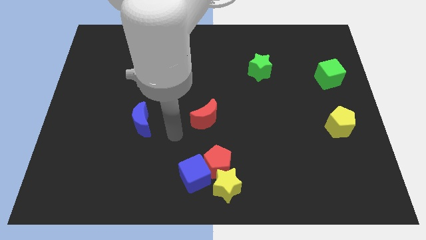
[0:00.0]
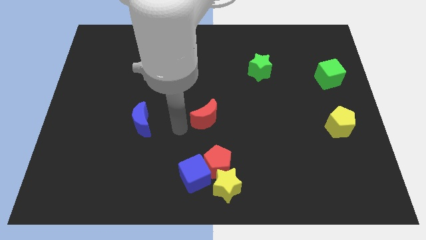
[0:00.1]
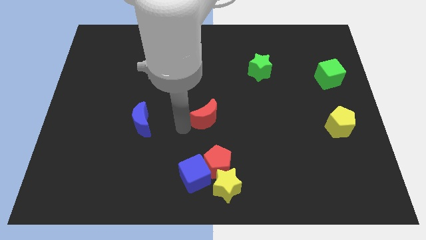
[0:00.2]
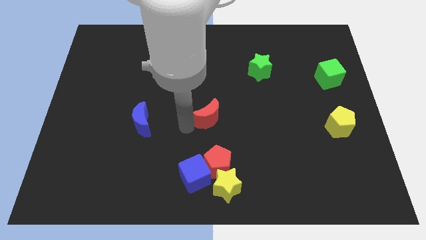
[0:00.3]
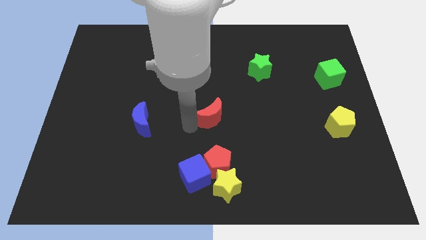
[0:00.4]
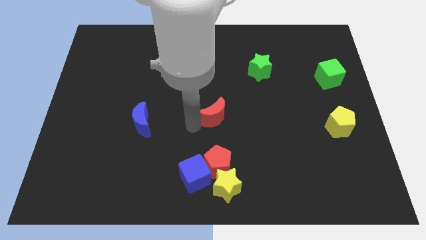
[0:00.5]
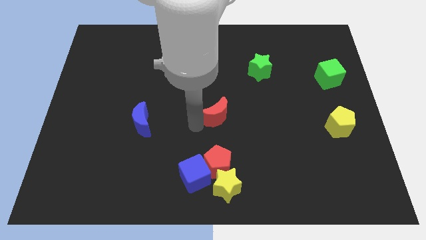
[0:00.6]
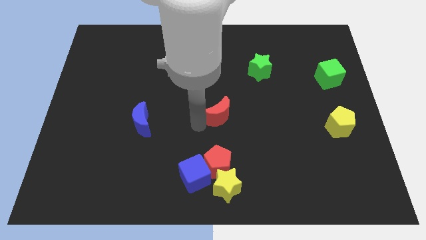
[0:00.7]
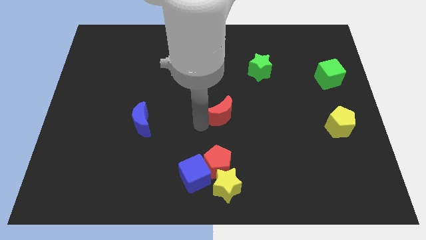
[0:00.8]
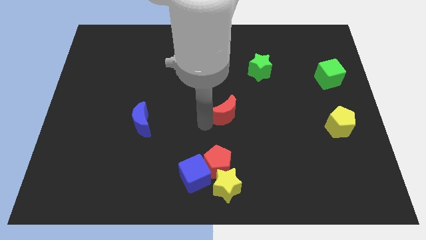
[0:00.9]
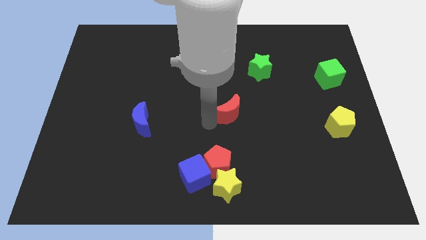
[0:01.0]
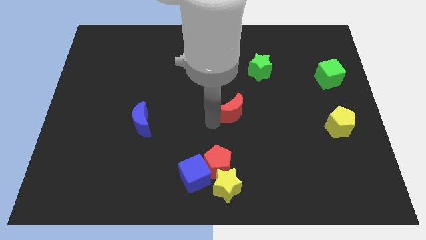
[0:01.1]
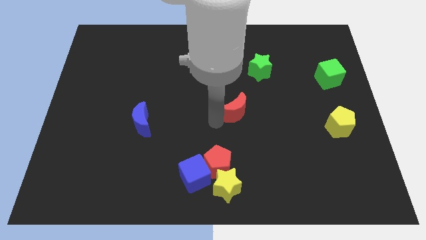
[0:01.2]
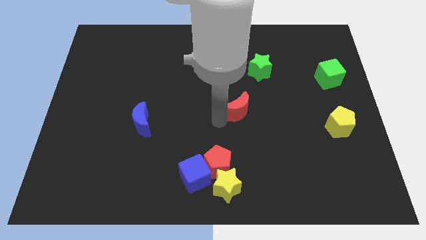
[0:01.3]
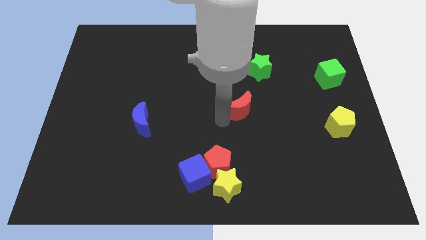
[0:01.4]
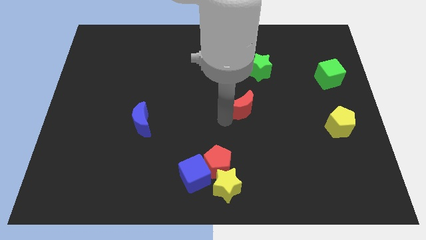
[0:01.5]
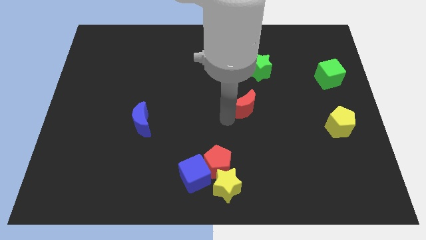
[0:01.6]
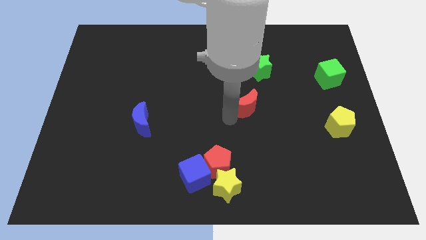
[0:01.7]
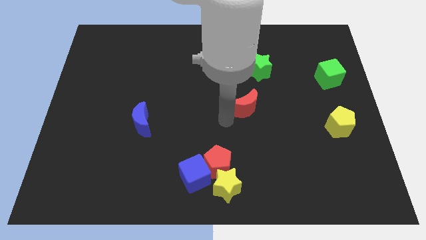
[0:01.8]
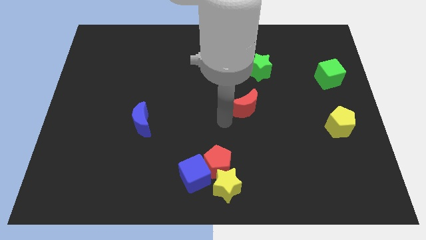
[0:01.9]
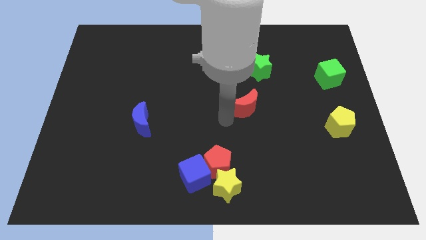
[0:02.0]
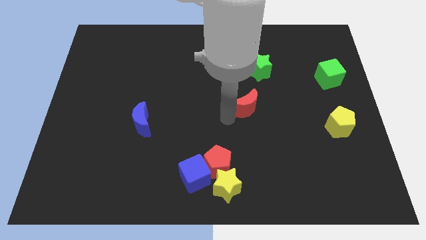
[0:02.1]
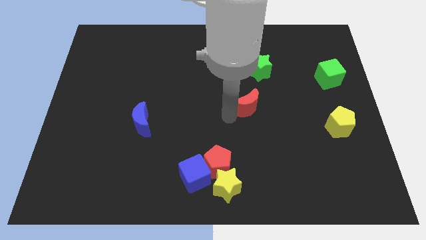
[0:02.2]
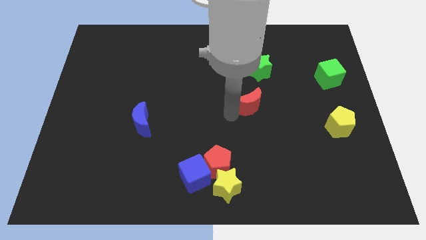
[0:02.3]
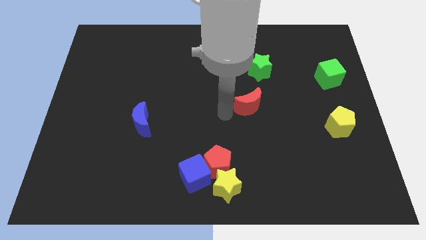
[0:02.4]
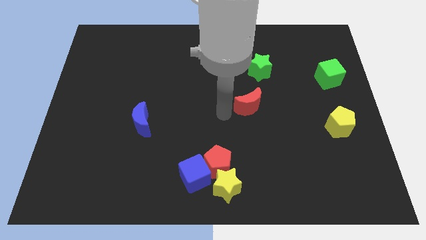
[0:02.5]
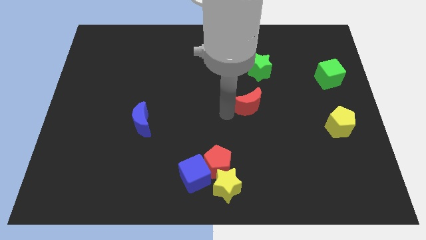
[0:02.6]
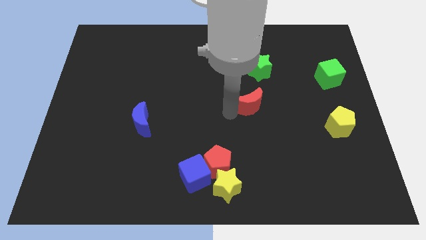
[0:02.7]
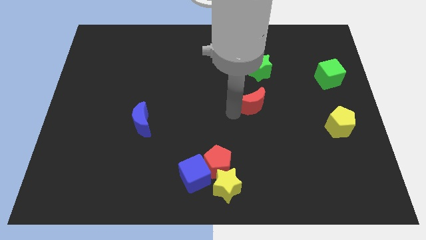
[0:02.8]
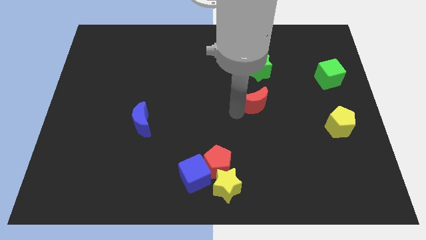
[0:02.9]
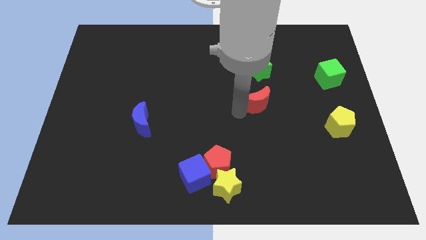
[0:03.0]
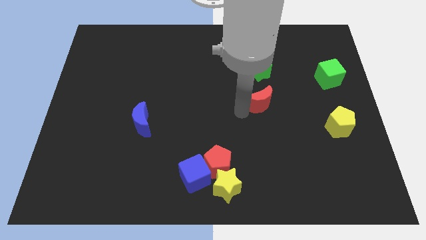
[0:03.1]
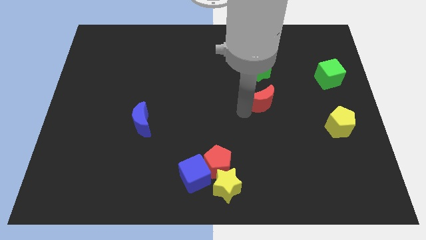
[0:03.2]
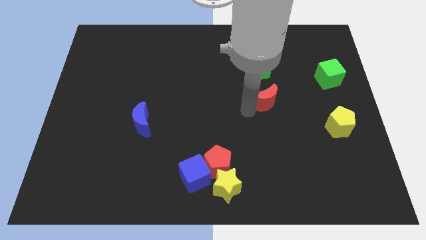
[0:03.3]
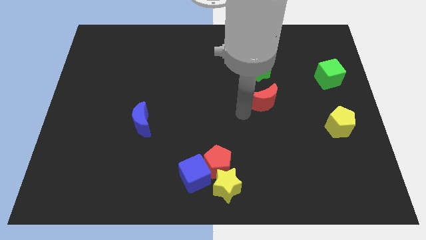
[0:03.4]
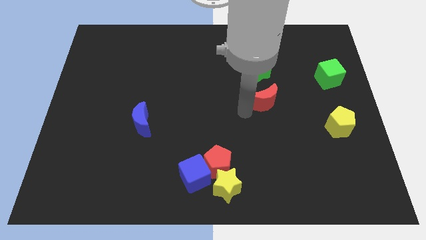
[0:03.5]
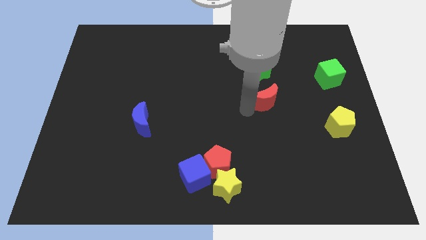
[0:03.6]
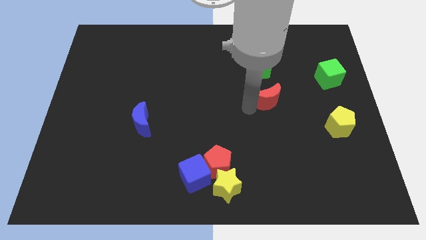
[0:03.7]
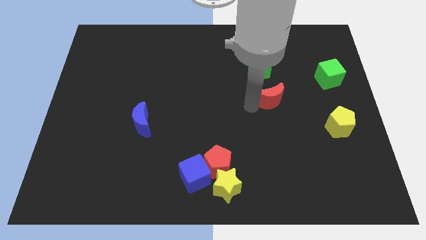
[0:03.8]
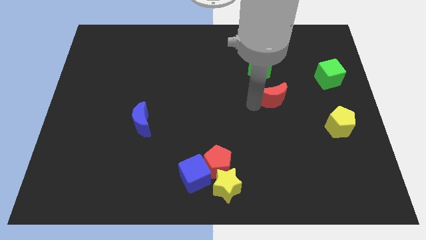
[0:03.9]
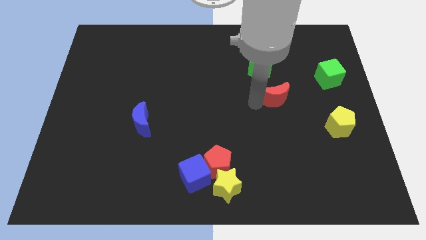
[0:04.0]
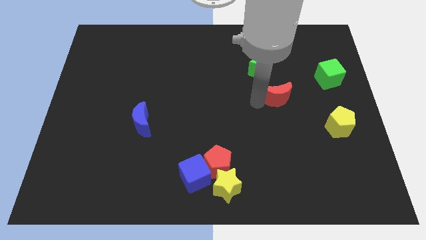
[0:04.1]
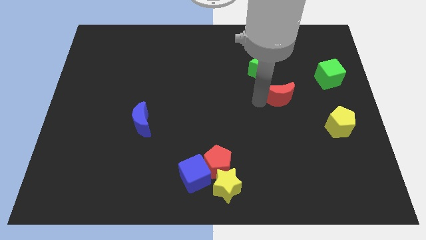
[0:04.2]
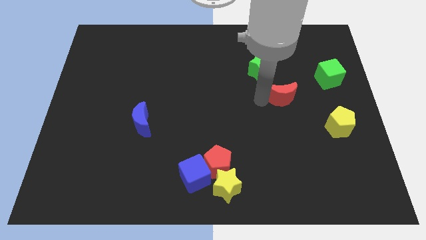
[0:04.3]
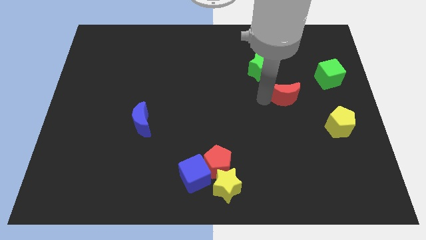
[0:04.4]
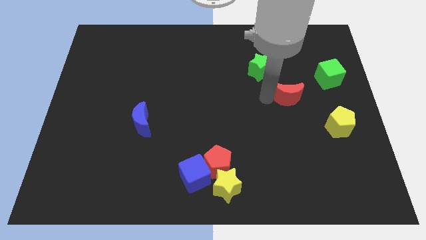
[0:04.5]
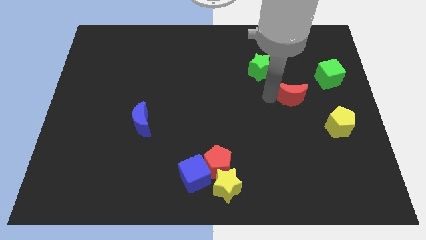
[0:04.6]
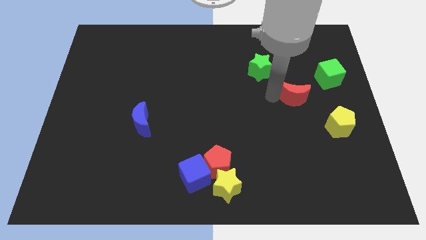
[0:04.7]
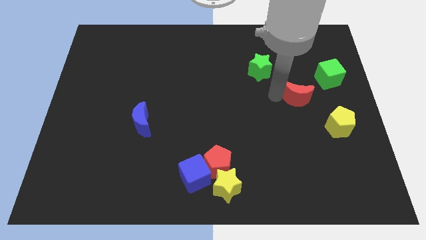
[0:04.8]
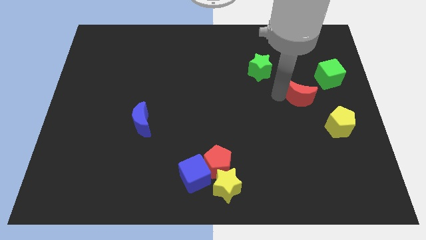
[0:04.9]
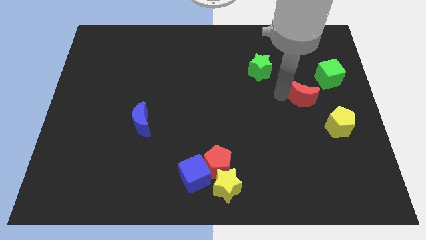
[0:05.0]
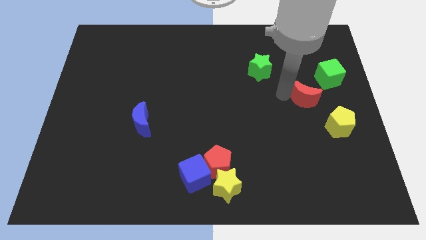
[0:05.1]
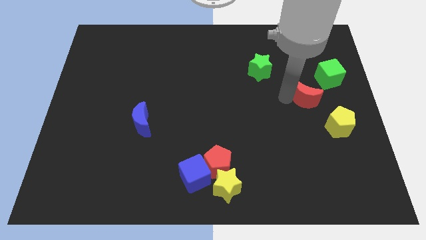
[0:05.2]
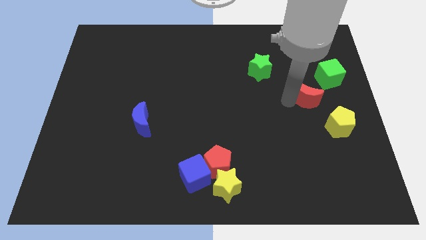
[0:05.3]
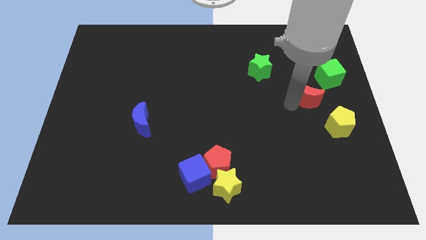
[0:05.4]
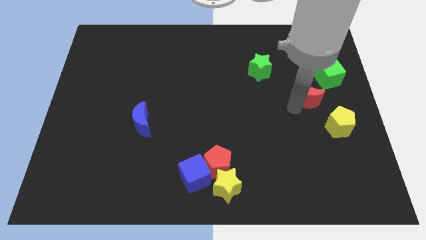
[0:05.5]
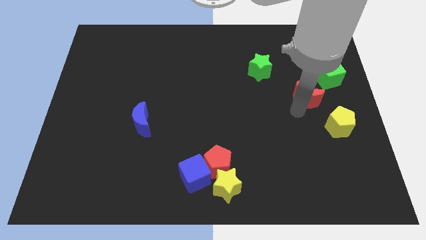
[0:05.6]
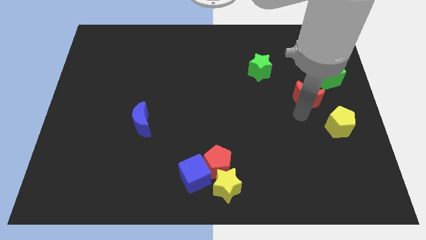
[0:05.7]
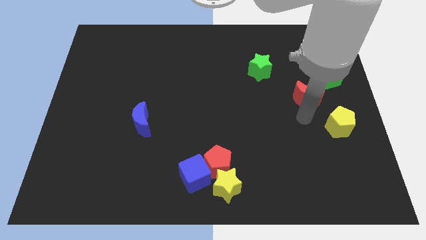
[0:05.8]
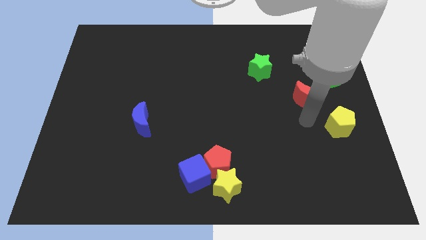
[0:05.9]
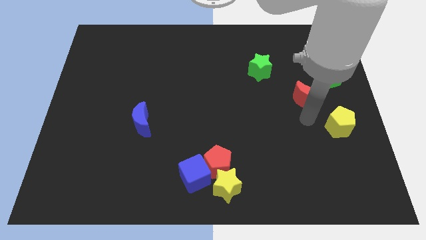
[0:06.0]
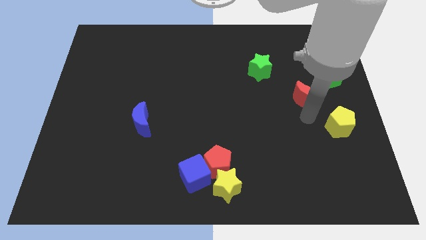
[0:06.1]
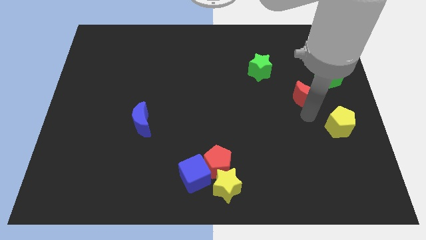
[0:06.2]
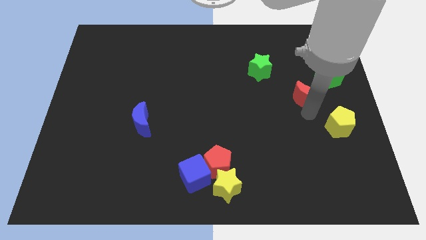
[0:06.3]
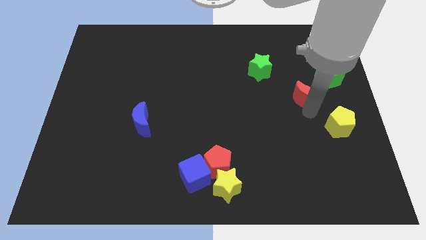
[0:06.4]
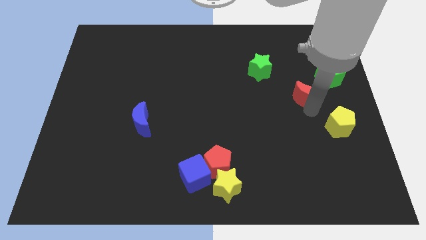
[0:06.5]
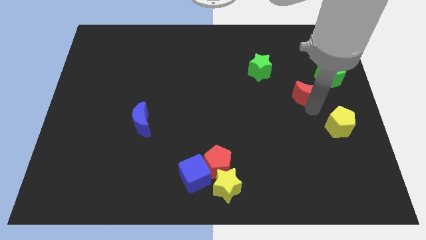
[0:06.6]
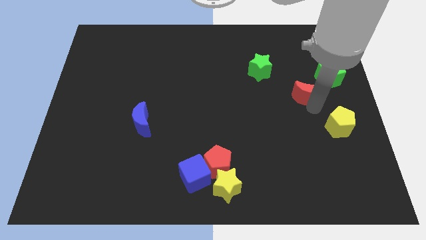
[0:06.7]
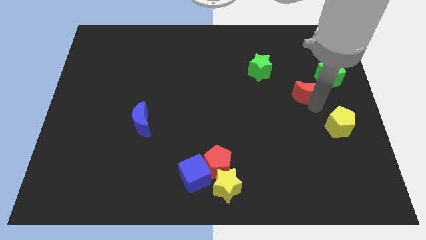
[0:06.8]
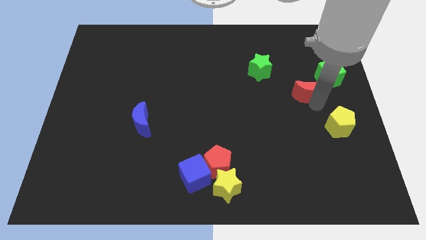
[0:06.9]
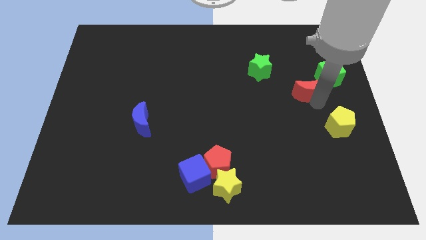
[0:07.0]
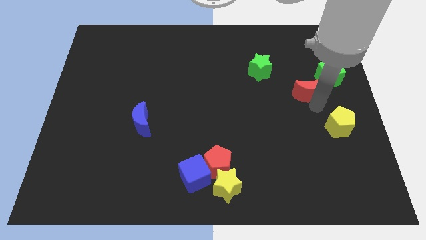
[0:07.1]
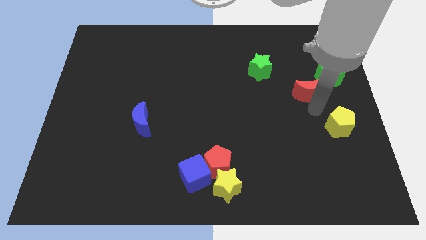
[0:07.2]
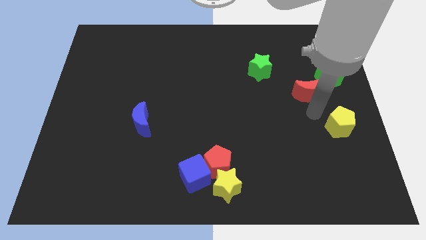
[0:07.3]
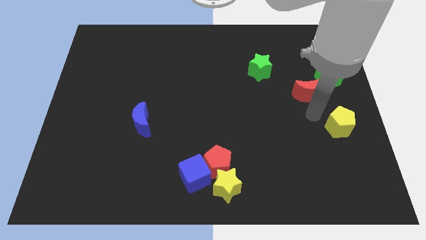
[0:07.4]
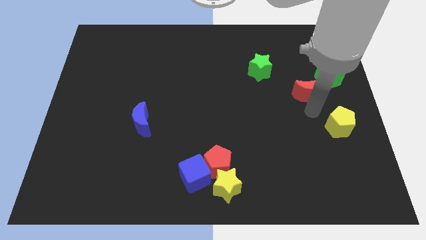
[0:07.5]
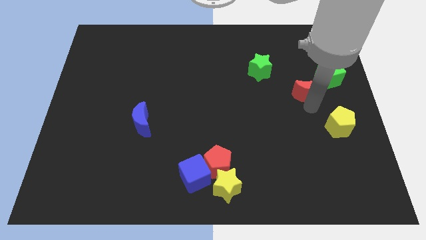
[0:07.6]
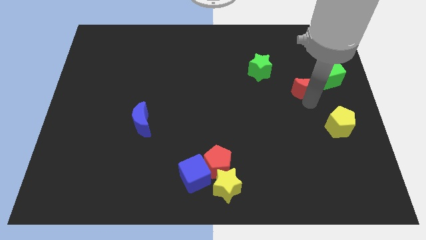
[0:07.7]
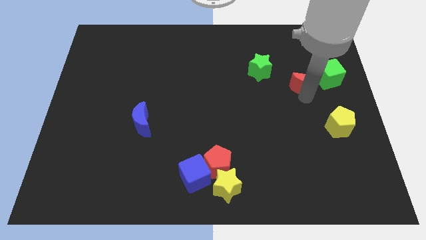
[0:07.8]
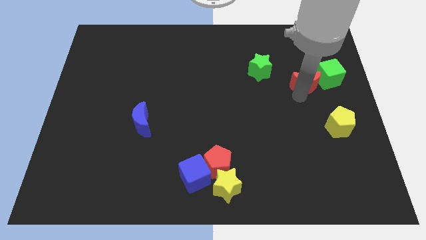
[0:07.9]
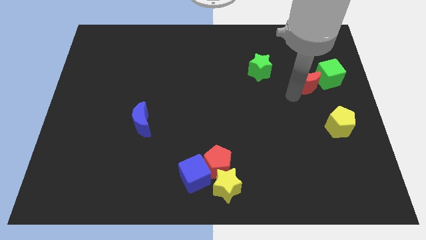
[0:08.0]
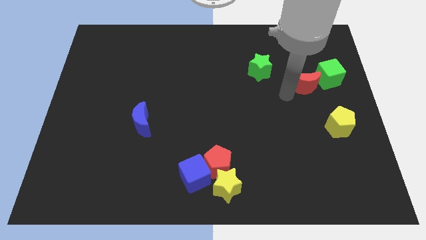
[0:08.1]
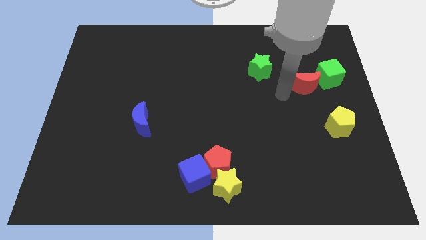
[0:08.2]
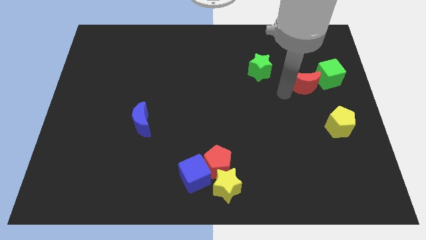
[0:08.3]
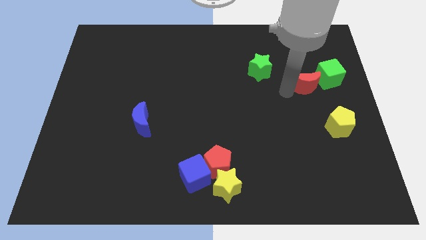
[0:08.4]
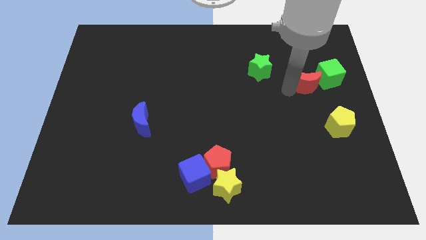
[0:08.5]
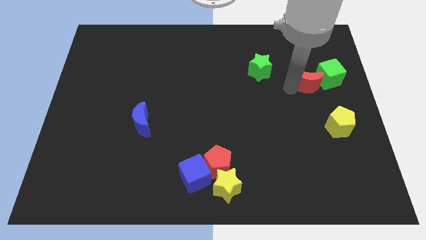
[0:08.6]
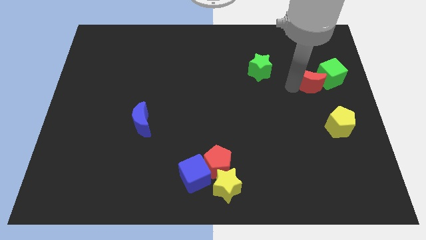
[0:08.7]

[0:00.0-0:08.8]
slide the red moon close to the green cube
